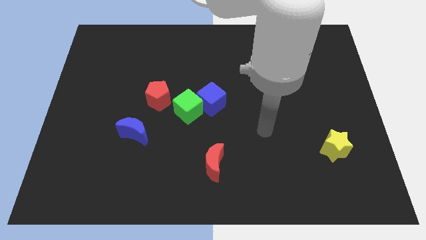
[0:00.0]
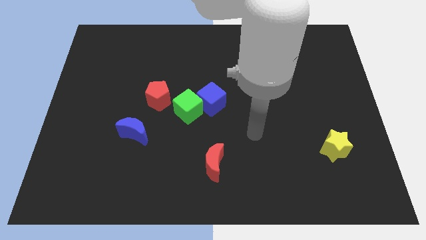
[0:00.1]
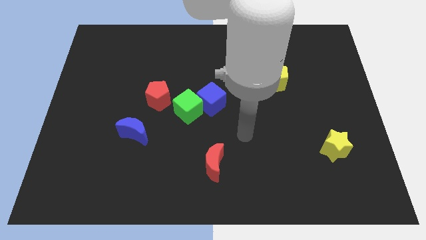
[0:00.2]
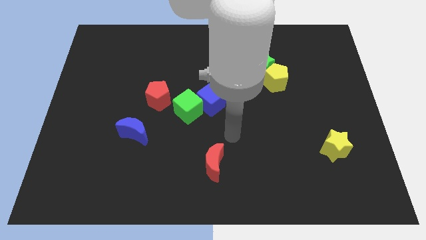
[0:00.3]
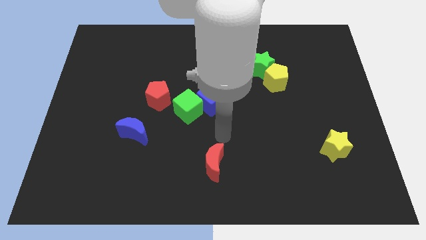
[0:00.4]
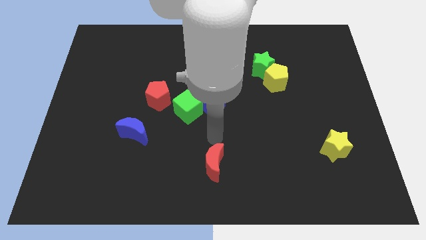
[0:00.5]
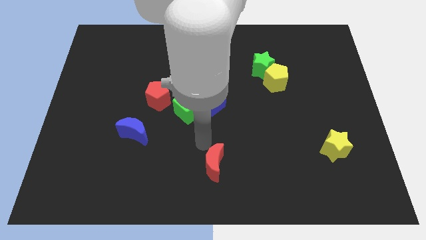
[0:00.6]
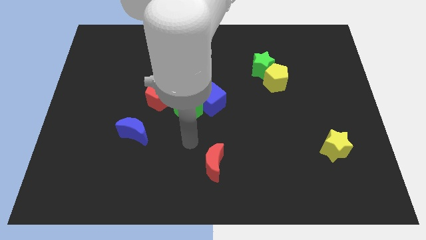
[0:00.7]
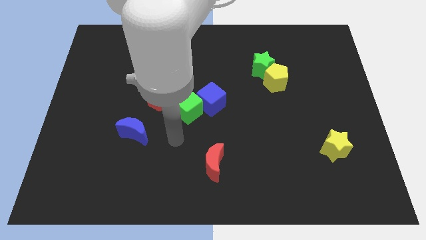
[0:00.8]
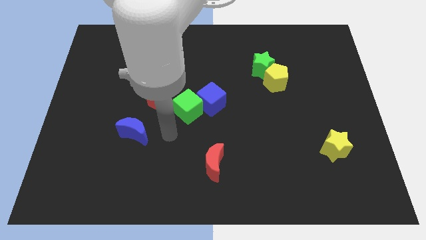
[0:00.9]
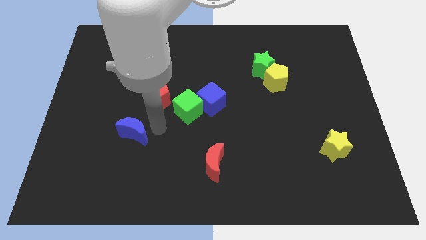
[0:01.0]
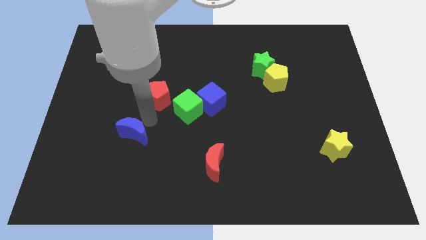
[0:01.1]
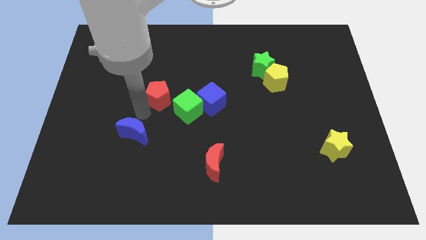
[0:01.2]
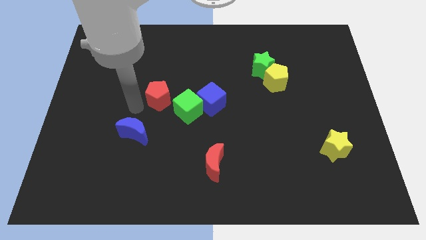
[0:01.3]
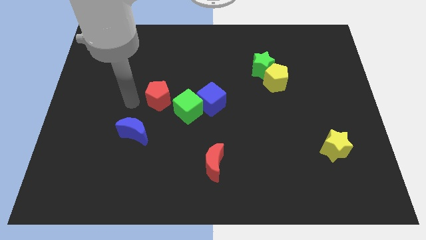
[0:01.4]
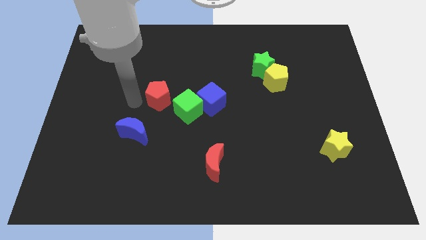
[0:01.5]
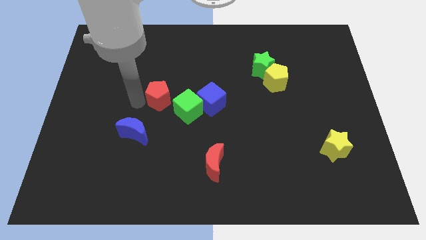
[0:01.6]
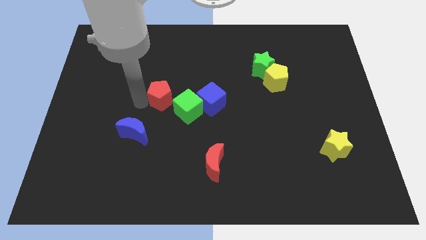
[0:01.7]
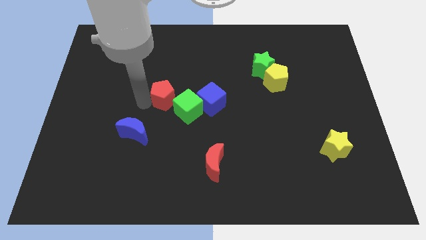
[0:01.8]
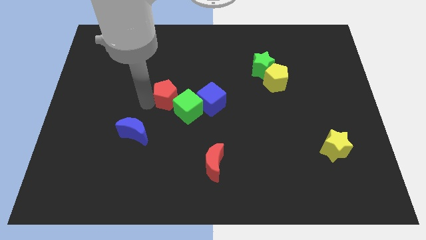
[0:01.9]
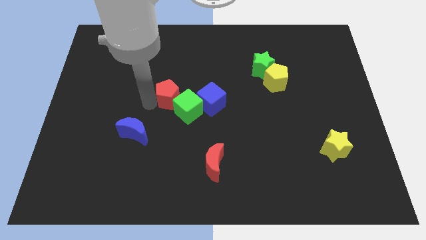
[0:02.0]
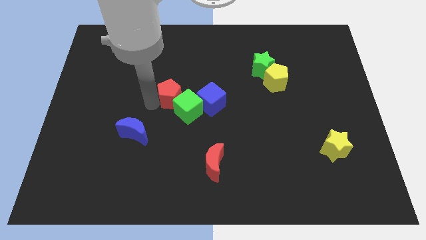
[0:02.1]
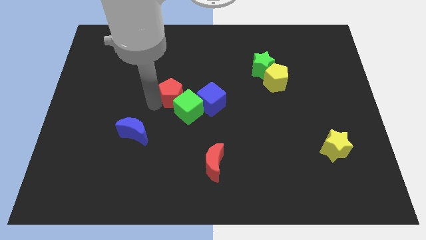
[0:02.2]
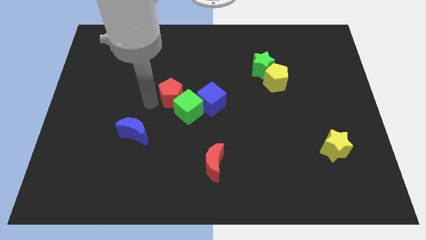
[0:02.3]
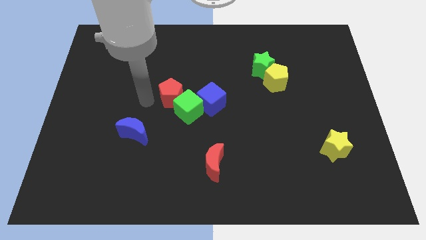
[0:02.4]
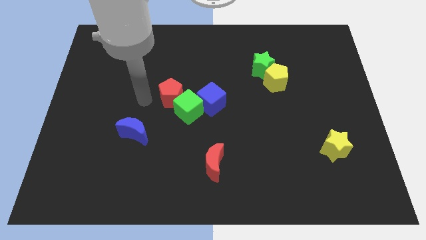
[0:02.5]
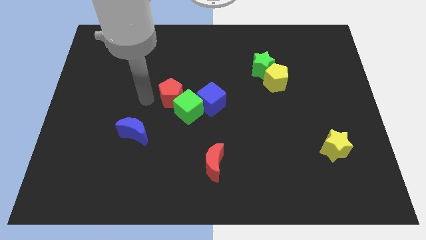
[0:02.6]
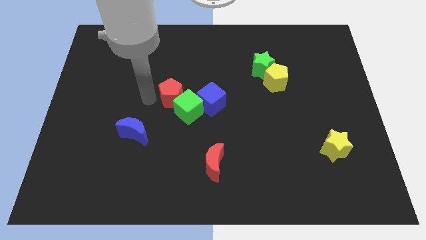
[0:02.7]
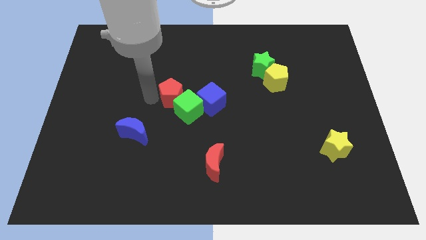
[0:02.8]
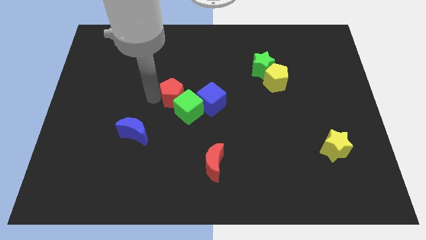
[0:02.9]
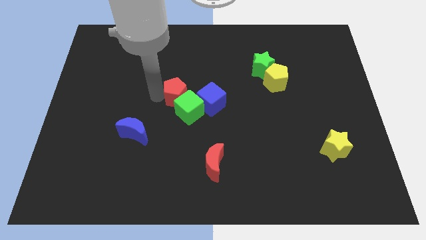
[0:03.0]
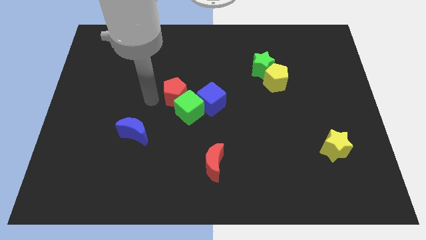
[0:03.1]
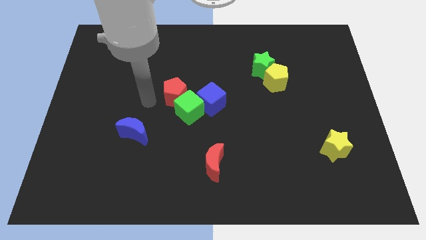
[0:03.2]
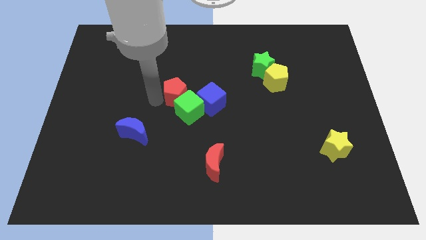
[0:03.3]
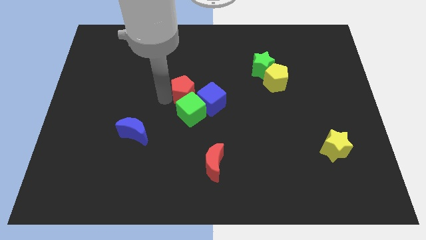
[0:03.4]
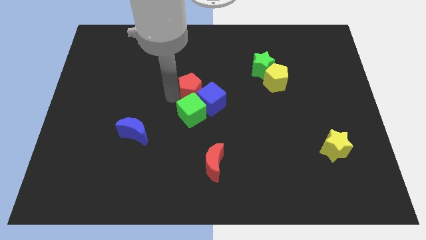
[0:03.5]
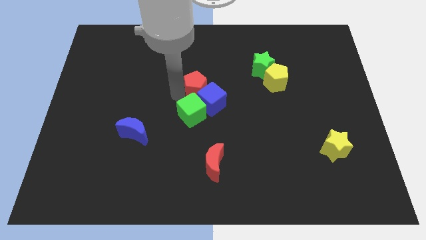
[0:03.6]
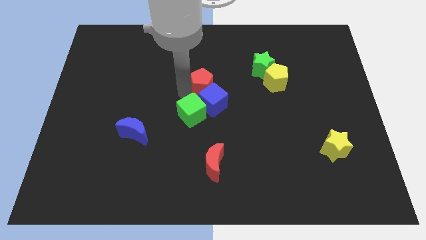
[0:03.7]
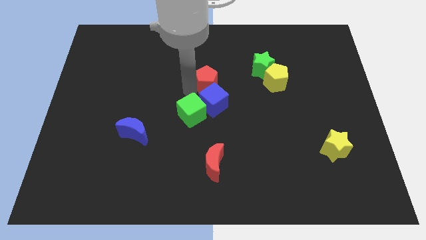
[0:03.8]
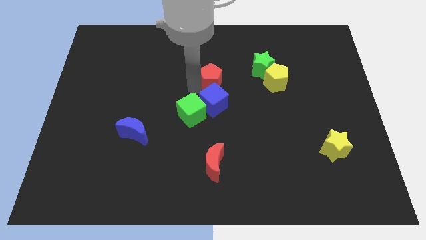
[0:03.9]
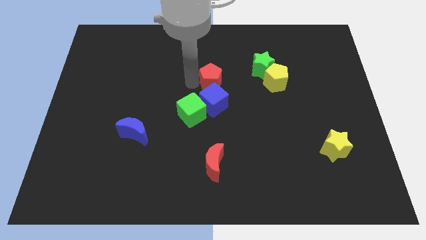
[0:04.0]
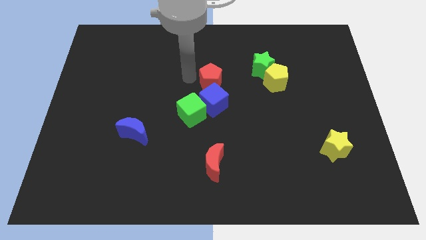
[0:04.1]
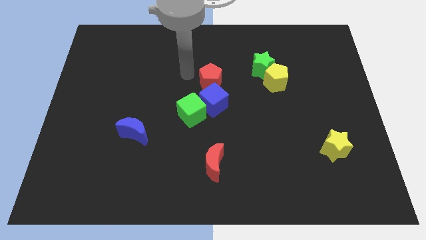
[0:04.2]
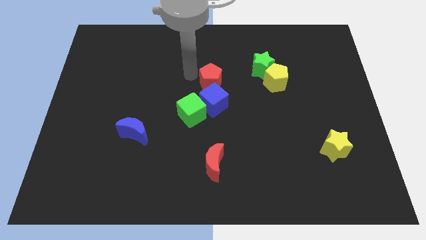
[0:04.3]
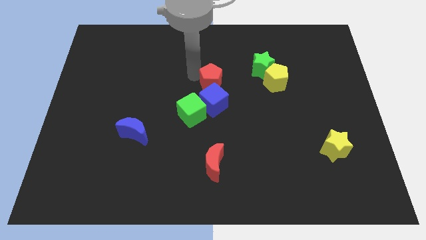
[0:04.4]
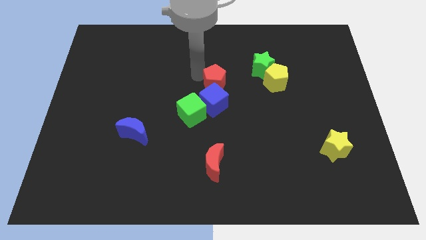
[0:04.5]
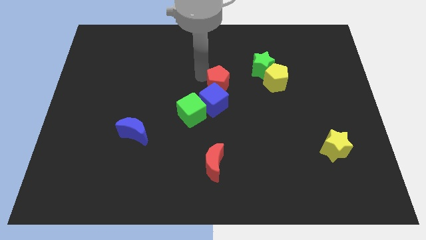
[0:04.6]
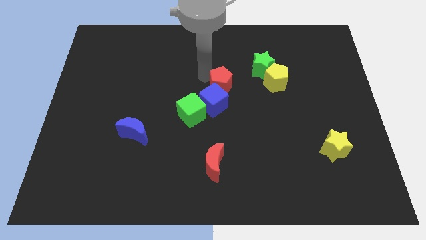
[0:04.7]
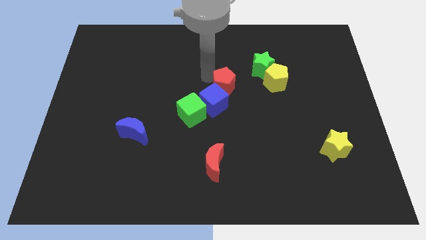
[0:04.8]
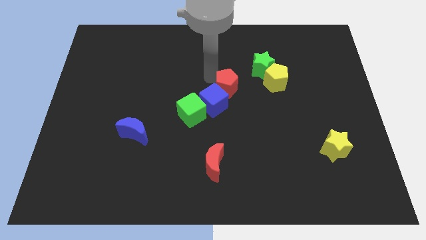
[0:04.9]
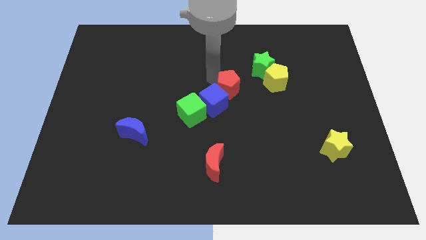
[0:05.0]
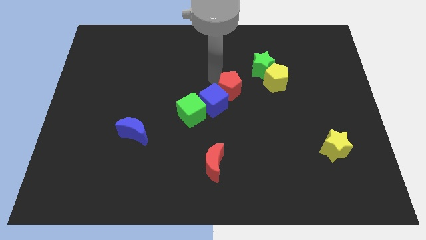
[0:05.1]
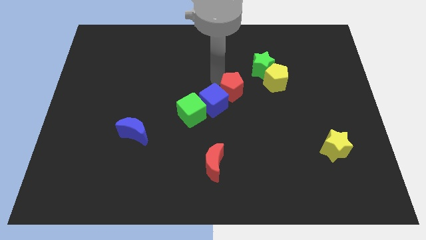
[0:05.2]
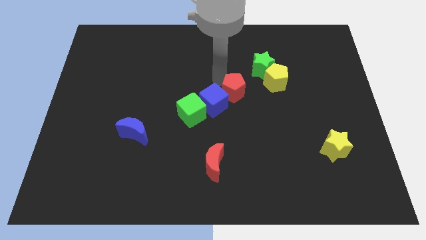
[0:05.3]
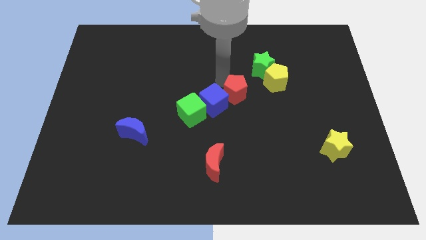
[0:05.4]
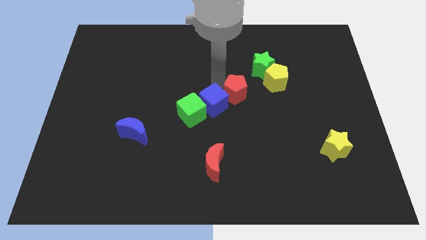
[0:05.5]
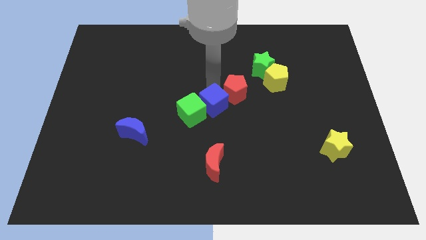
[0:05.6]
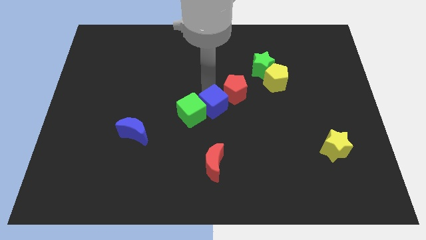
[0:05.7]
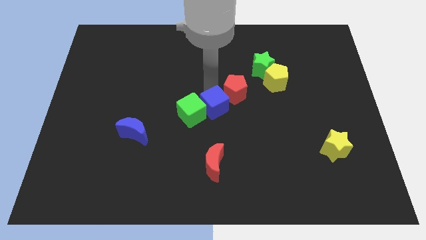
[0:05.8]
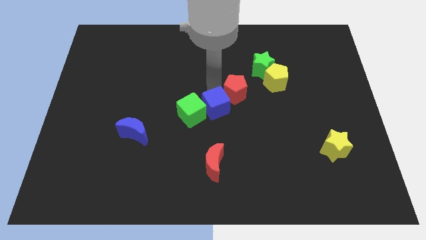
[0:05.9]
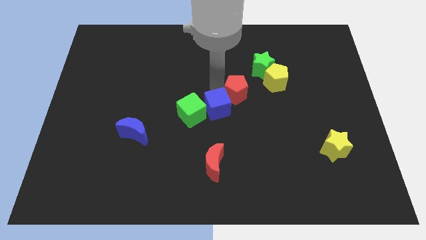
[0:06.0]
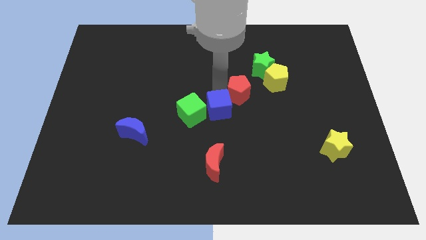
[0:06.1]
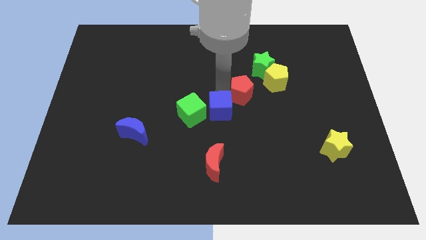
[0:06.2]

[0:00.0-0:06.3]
move the red pentagon to the right

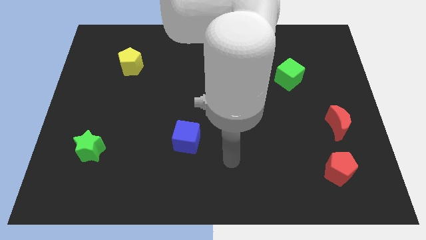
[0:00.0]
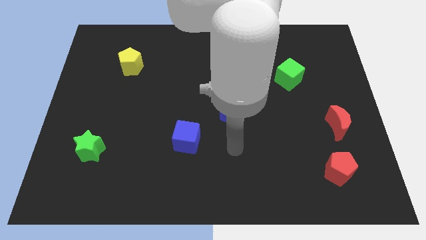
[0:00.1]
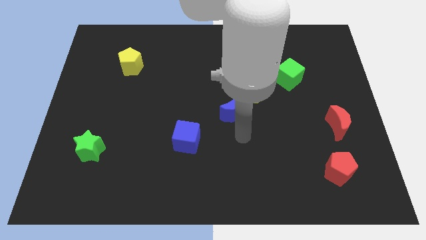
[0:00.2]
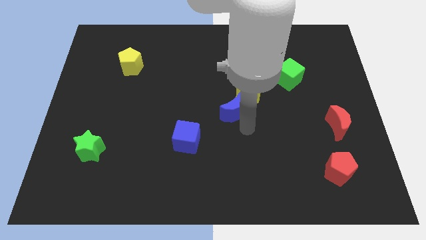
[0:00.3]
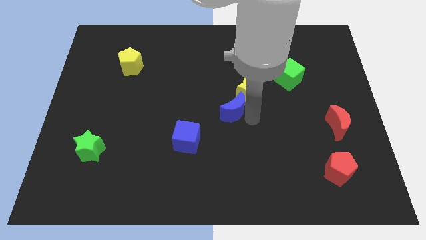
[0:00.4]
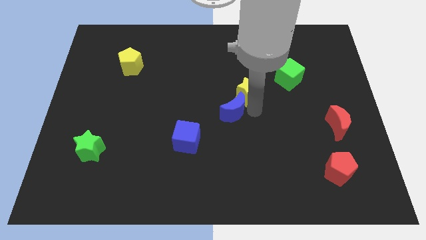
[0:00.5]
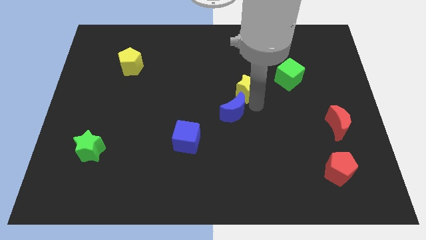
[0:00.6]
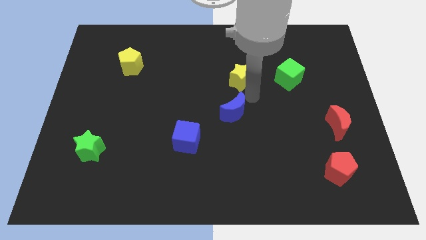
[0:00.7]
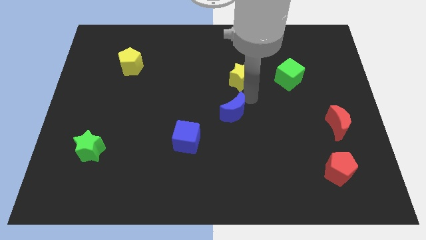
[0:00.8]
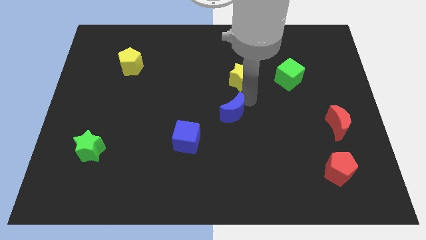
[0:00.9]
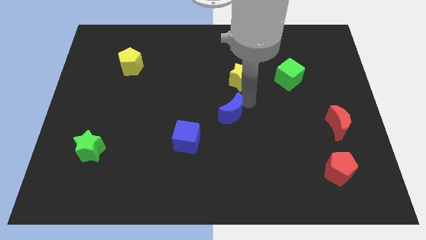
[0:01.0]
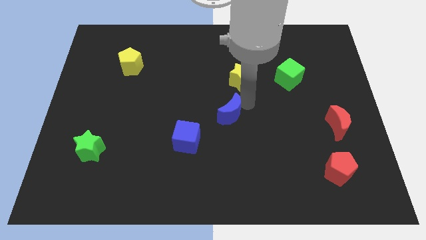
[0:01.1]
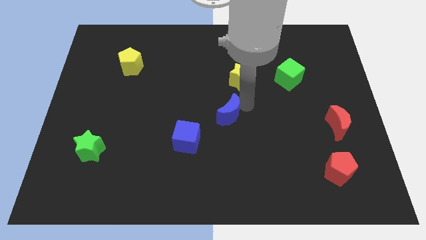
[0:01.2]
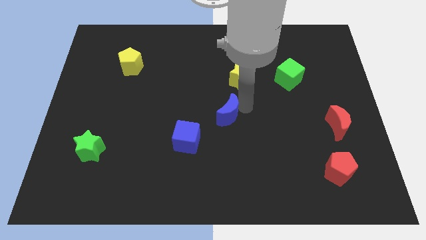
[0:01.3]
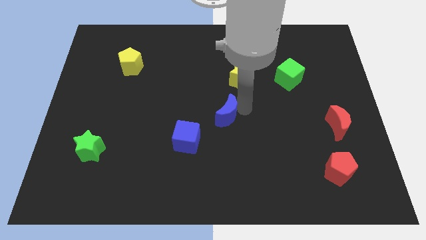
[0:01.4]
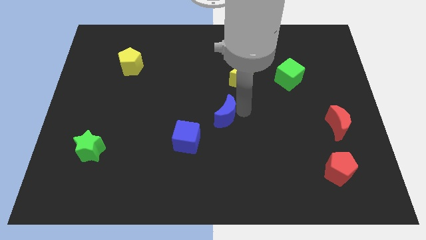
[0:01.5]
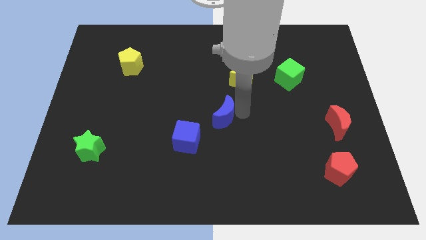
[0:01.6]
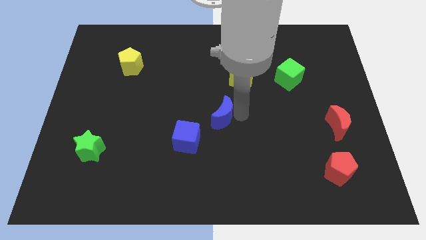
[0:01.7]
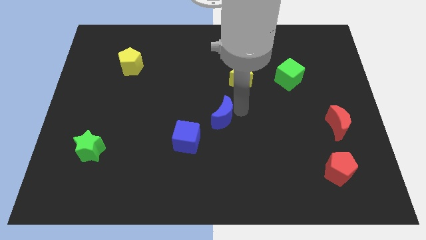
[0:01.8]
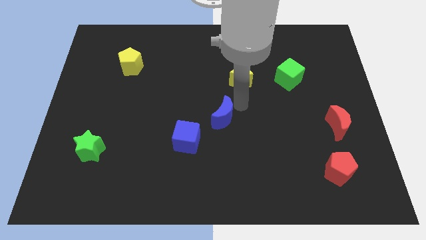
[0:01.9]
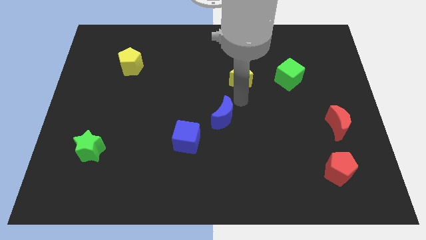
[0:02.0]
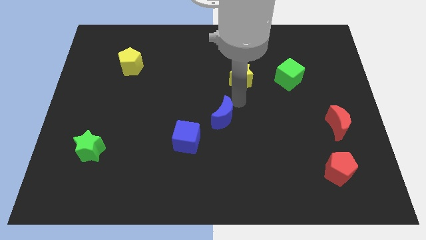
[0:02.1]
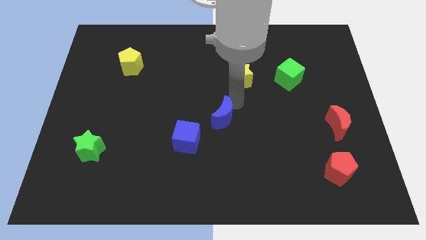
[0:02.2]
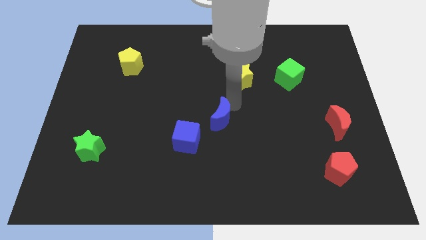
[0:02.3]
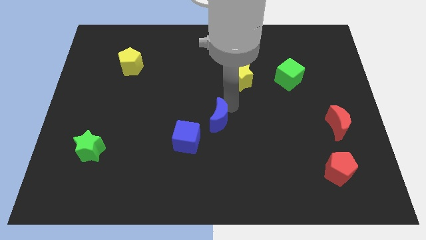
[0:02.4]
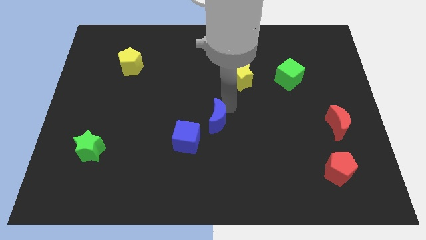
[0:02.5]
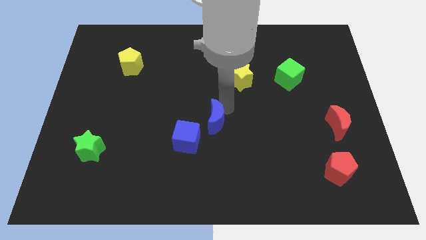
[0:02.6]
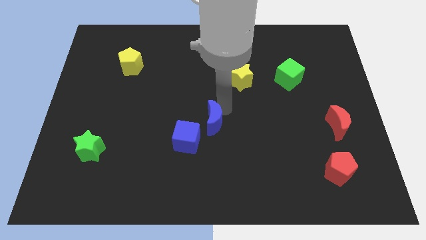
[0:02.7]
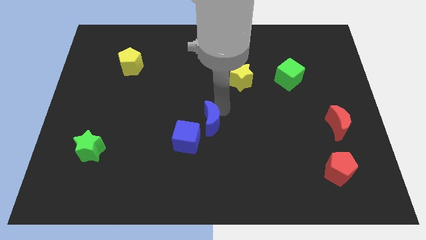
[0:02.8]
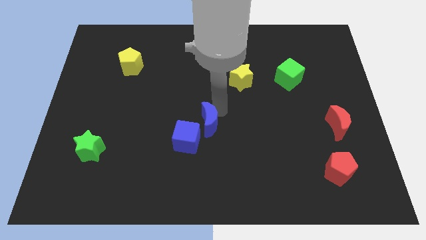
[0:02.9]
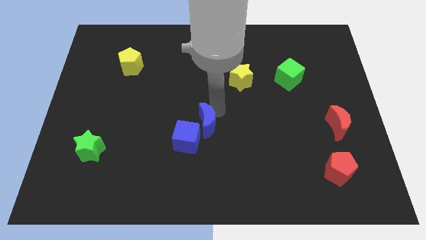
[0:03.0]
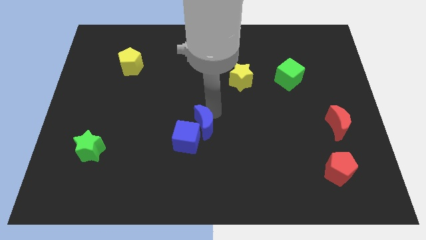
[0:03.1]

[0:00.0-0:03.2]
push the blue moon downwards and left diagonally a little
